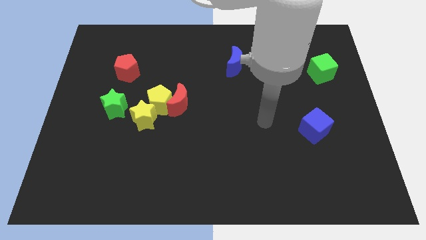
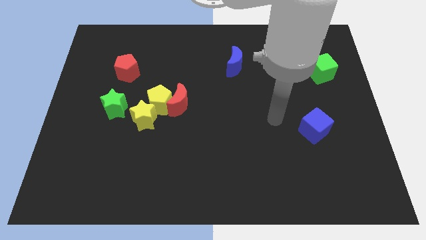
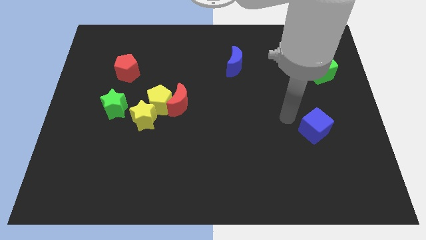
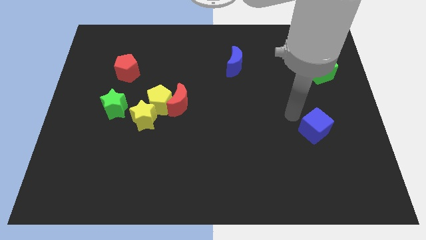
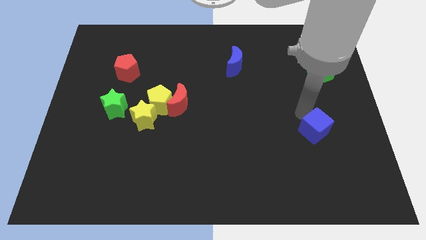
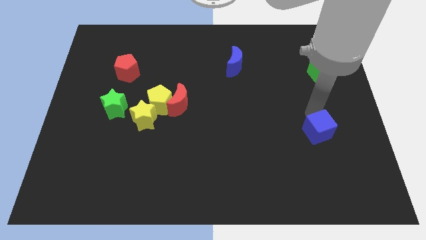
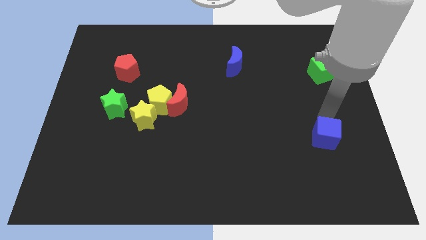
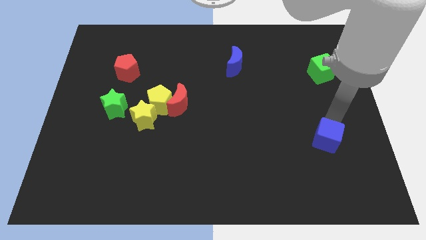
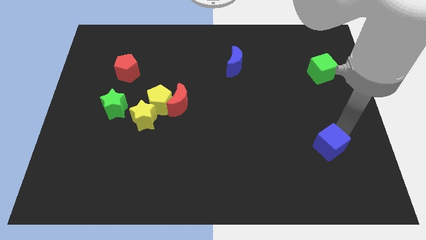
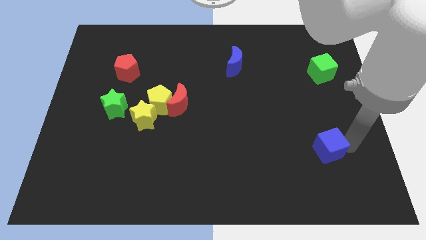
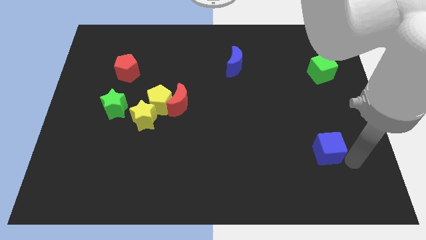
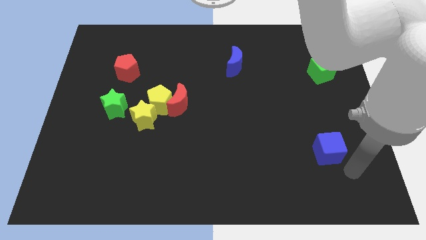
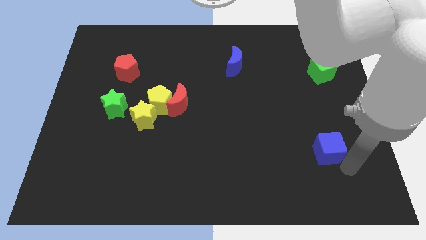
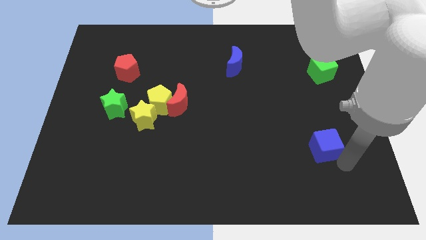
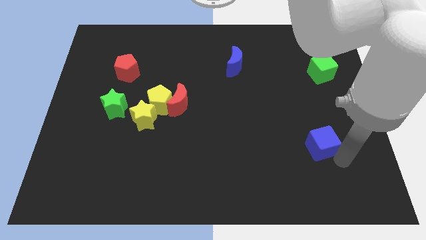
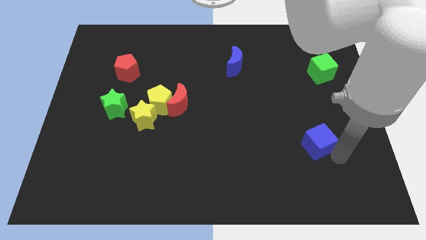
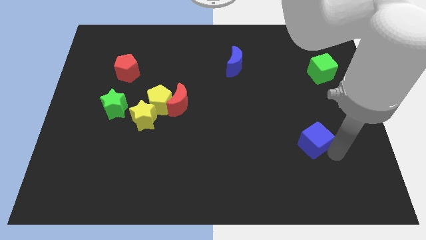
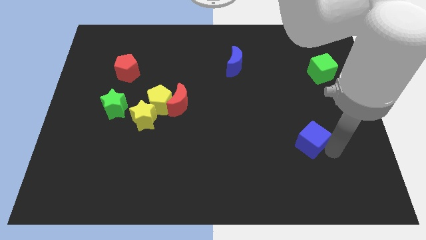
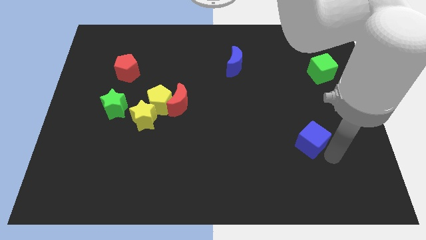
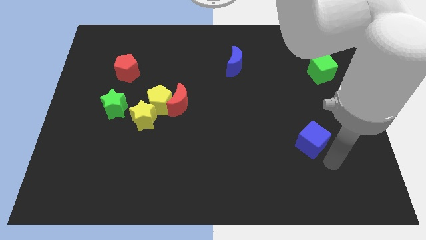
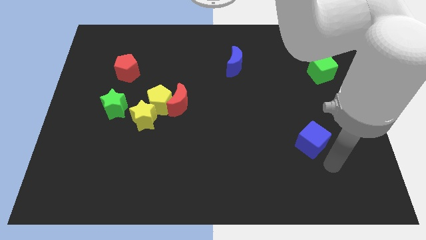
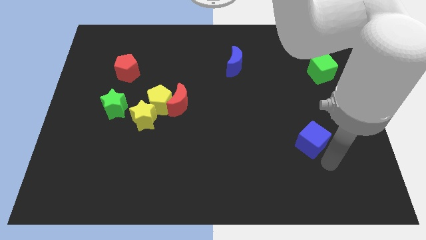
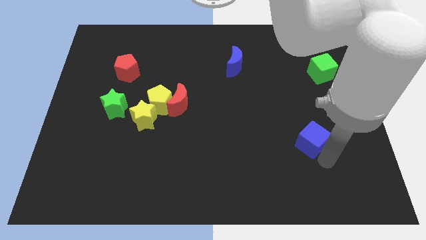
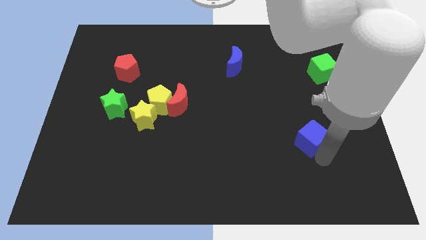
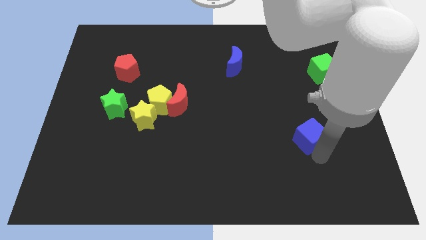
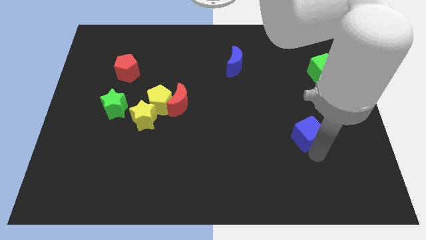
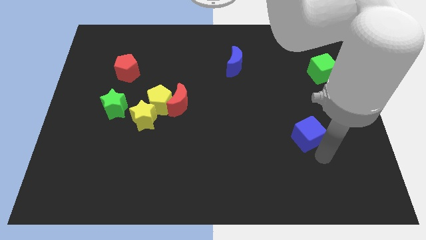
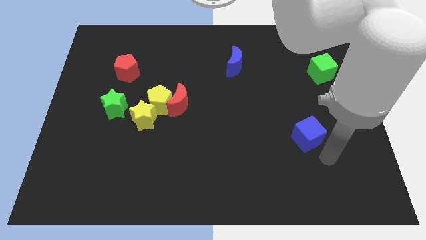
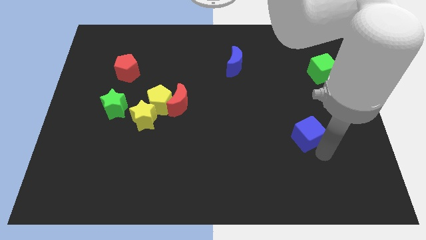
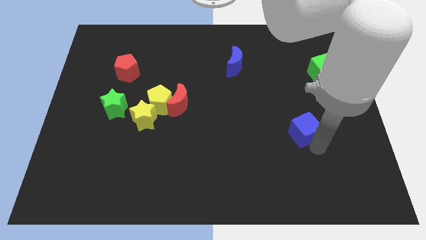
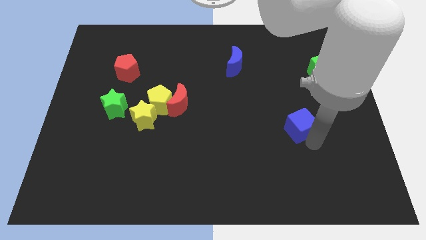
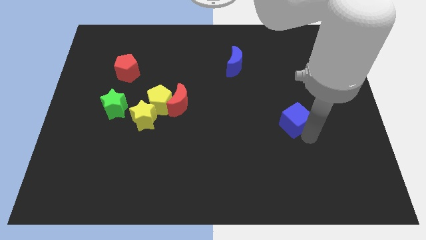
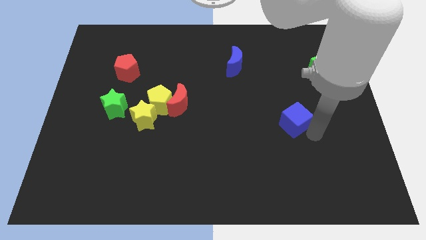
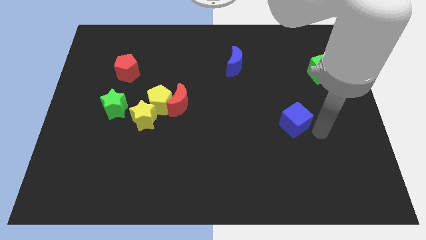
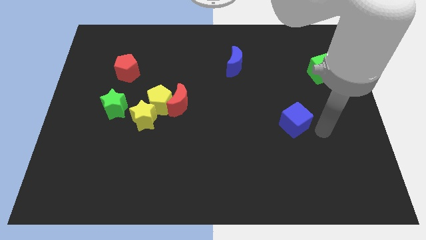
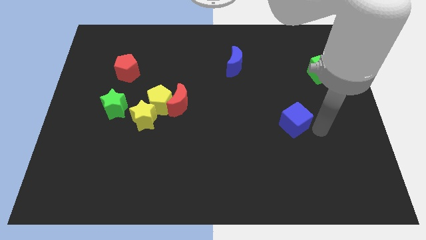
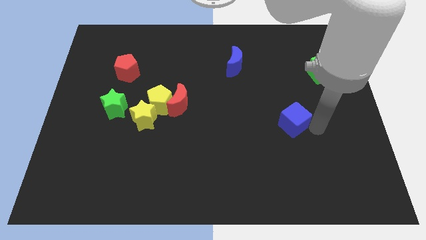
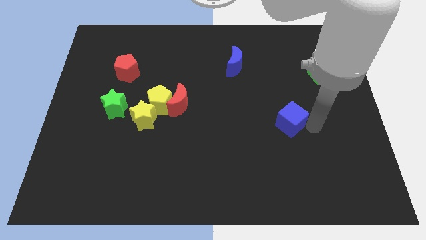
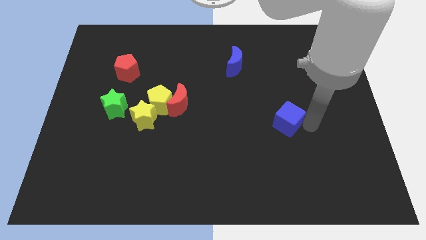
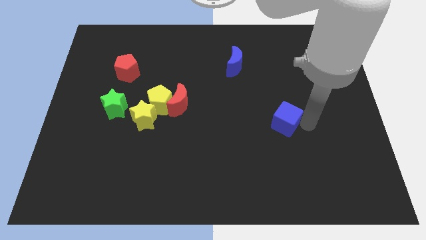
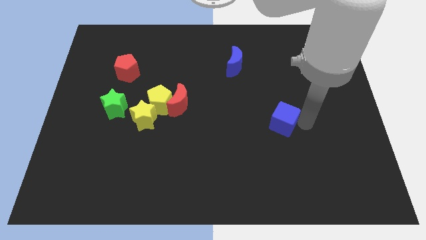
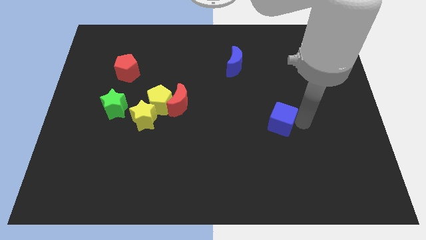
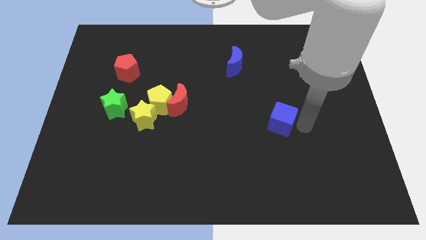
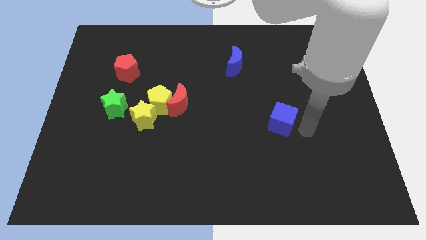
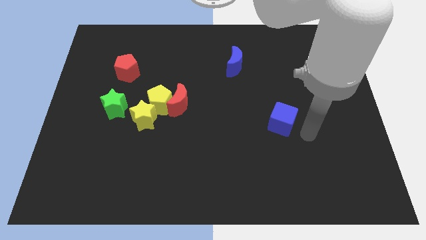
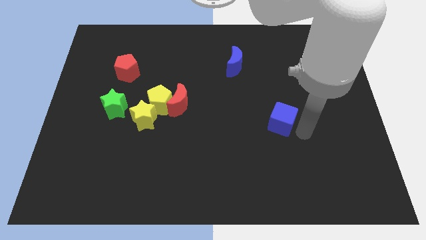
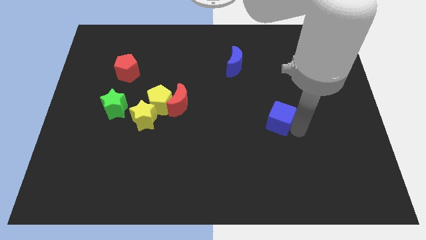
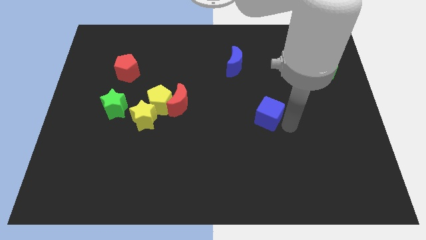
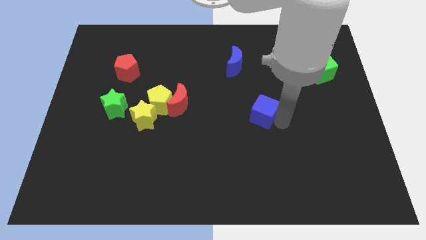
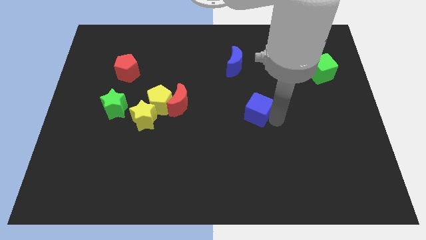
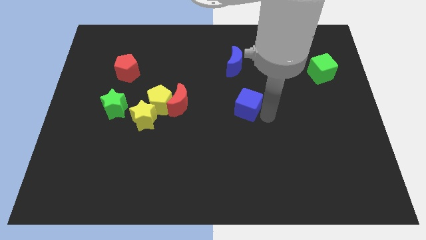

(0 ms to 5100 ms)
push the blue cube just right of the red moon

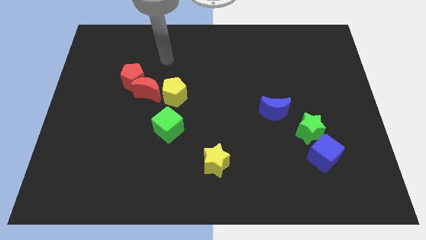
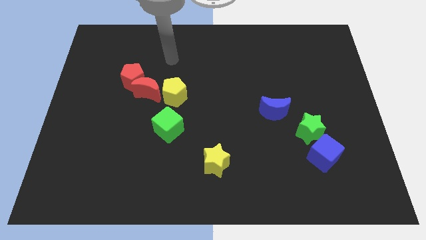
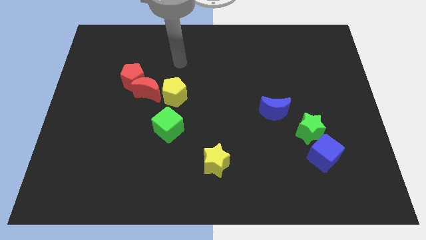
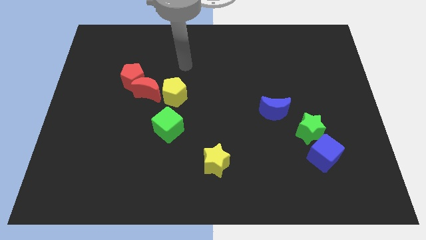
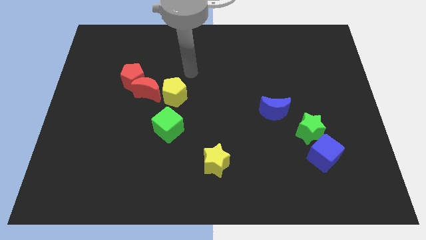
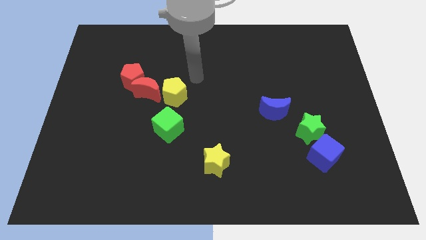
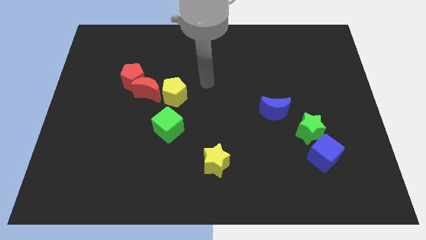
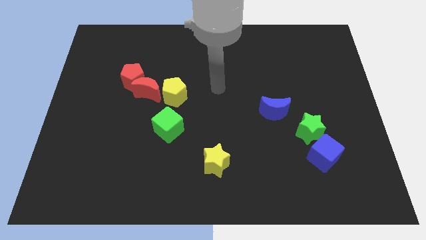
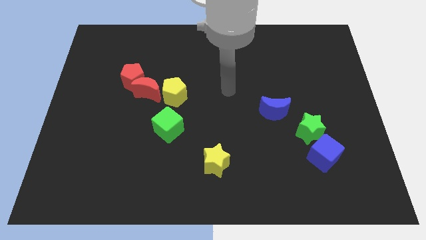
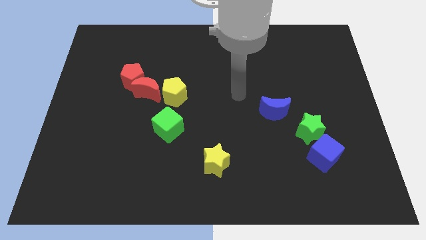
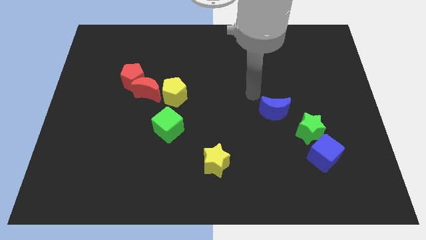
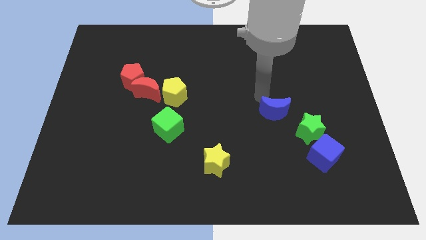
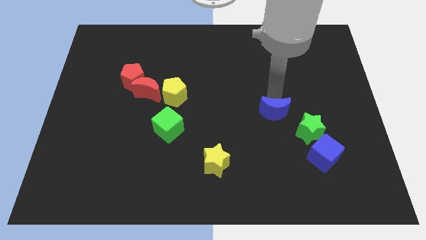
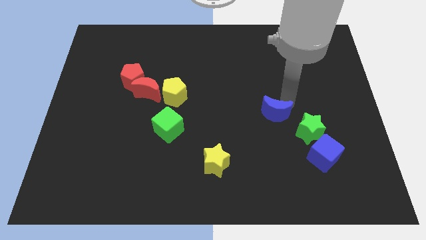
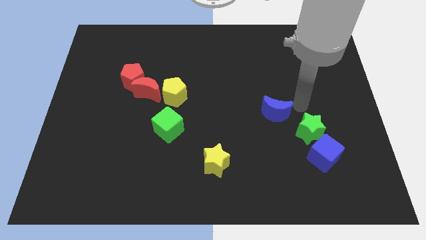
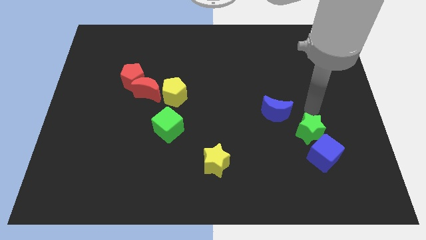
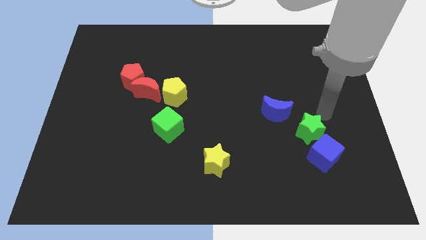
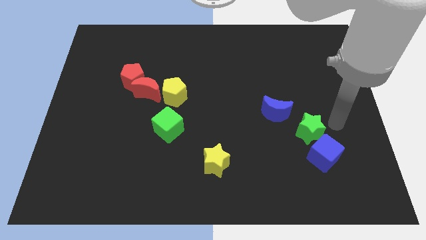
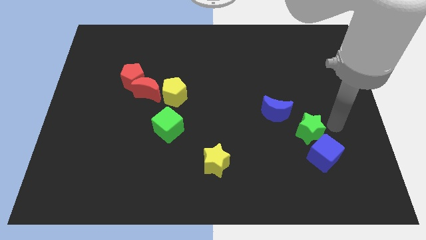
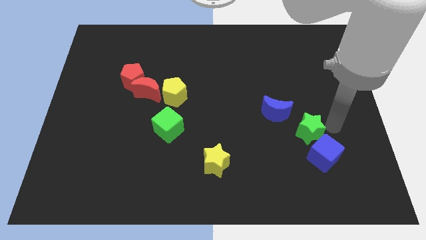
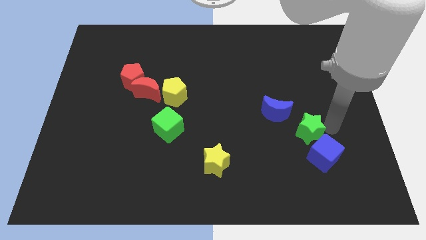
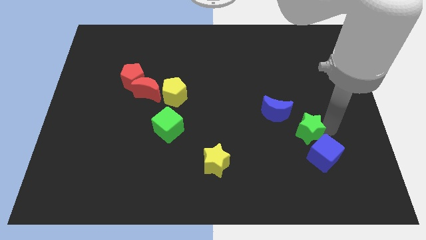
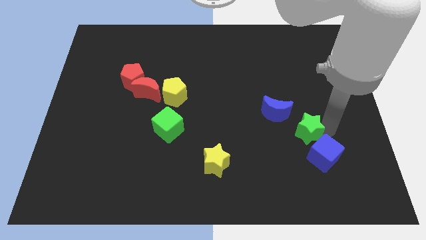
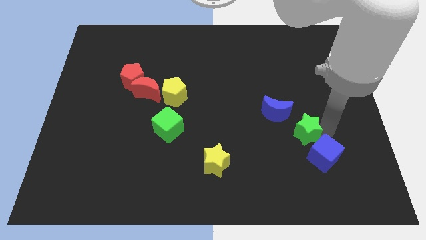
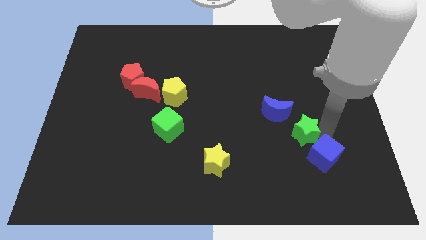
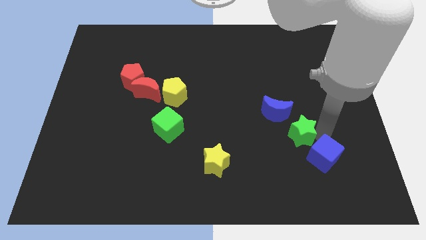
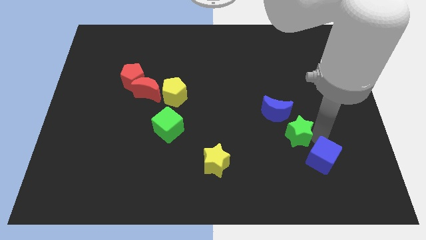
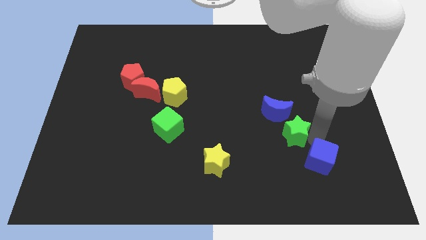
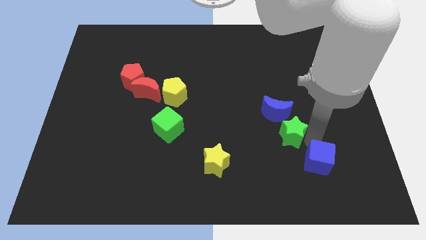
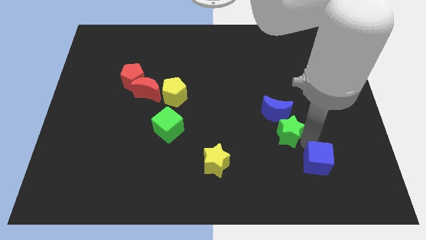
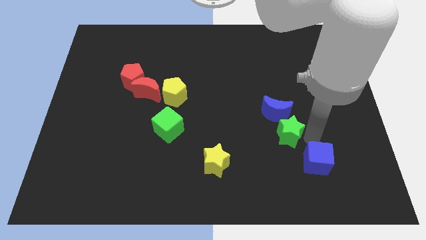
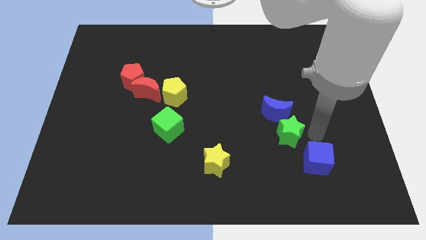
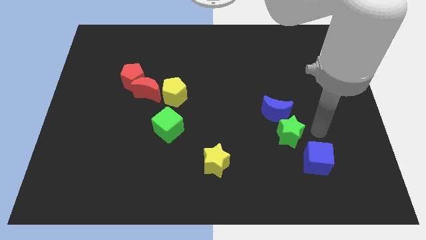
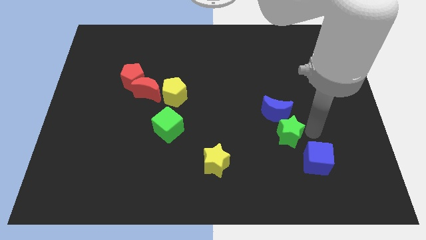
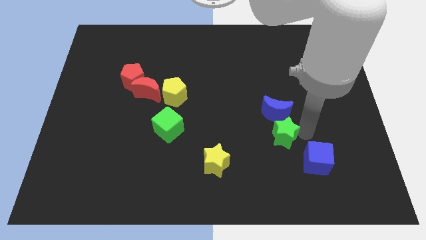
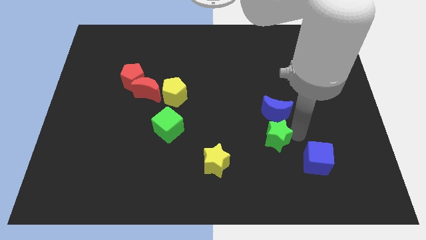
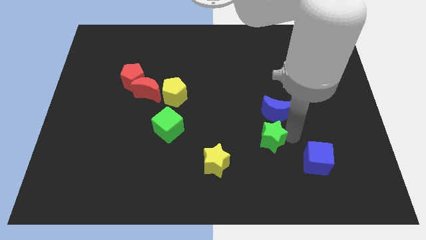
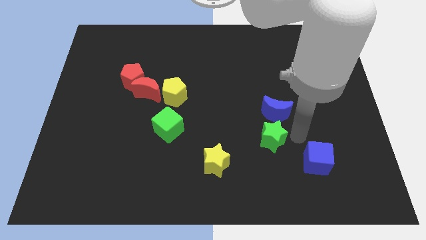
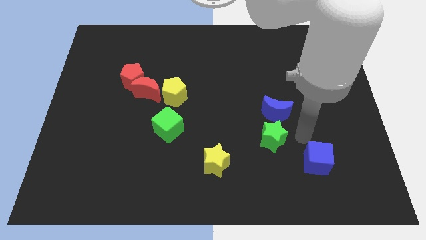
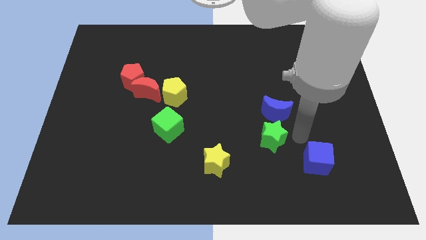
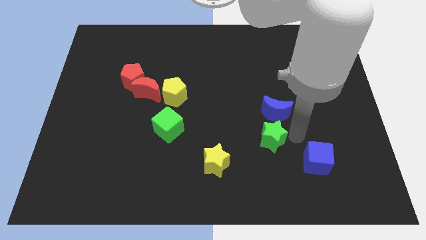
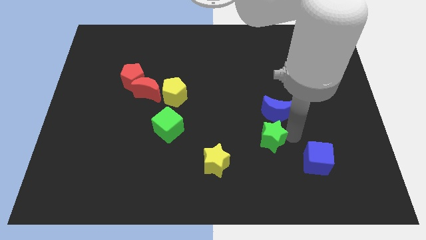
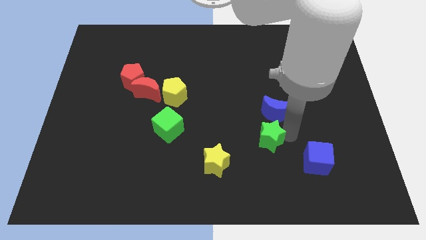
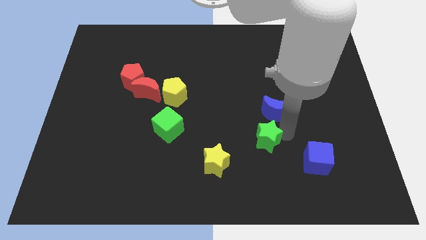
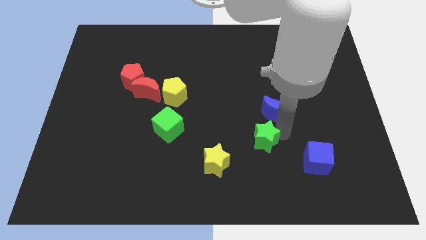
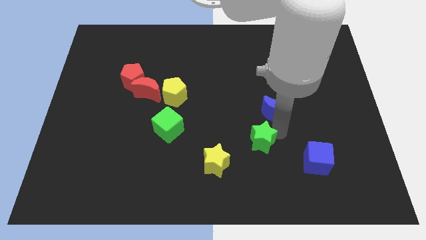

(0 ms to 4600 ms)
slide the green star to the top right of the yellow star
